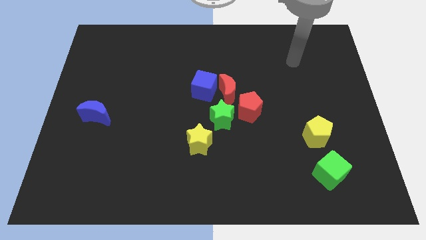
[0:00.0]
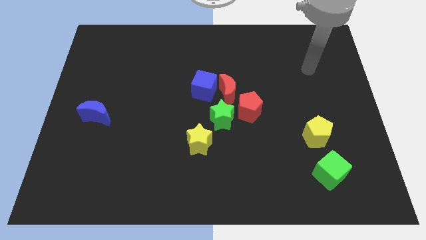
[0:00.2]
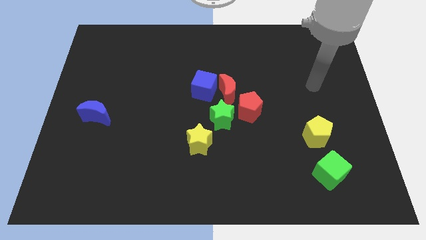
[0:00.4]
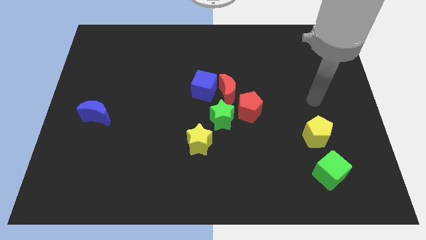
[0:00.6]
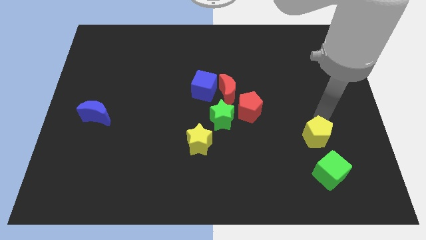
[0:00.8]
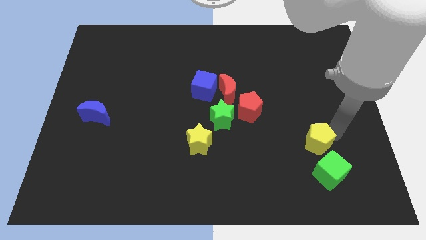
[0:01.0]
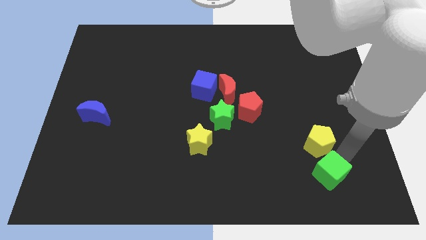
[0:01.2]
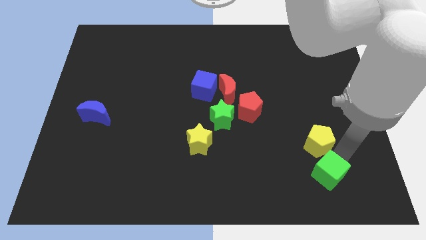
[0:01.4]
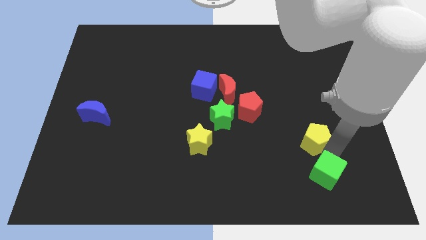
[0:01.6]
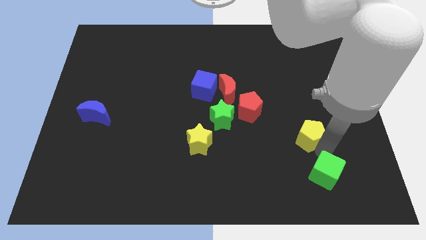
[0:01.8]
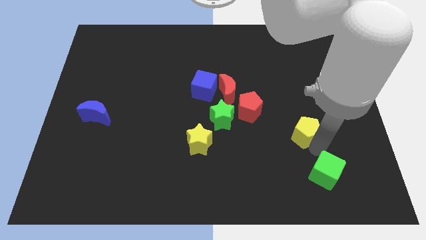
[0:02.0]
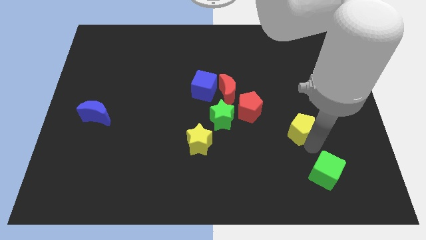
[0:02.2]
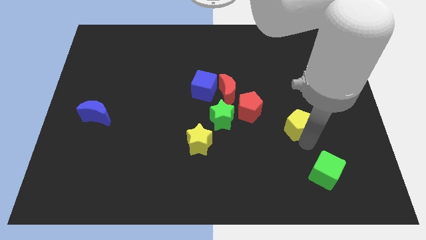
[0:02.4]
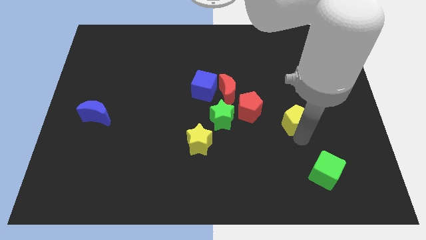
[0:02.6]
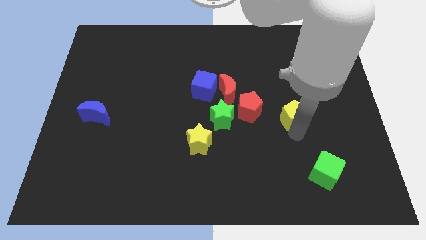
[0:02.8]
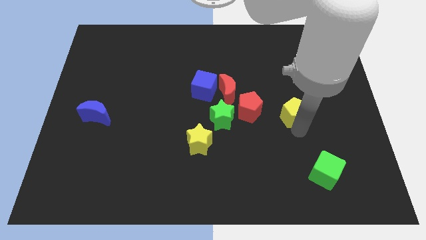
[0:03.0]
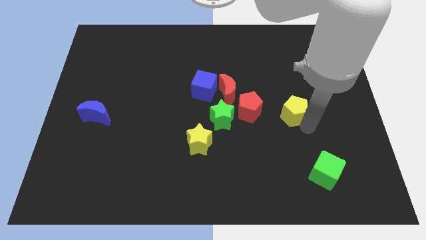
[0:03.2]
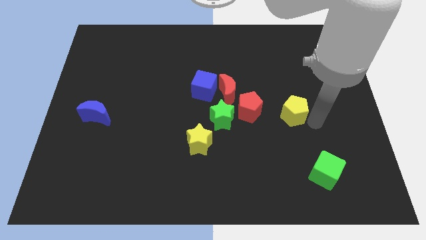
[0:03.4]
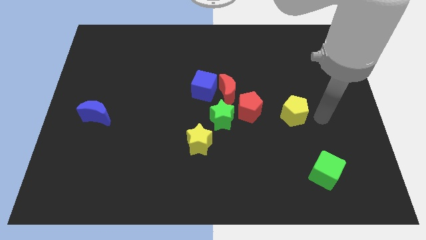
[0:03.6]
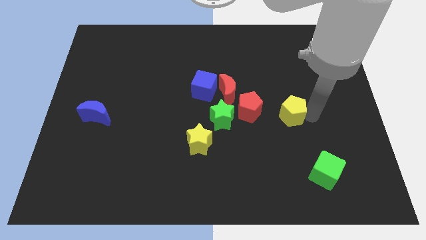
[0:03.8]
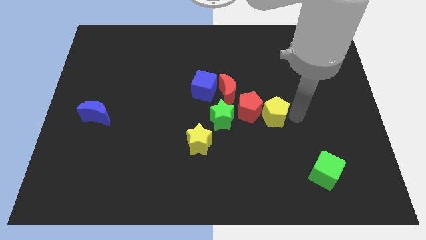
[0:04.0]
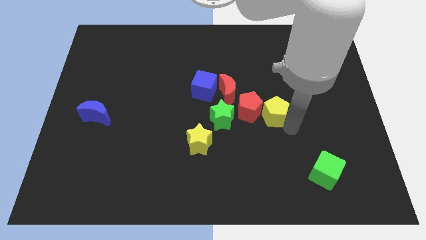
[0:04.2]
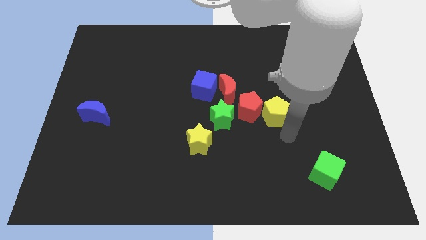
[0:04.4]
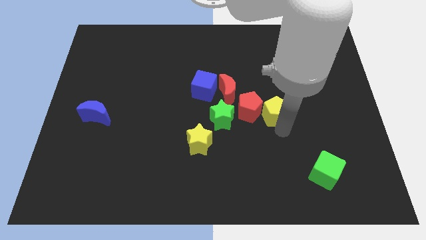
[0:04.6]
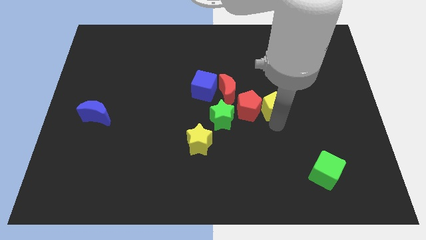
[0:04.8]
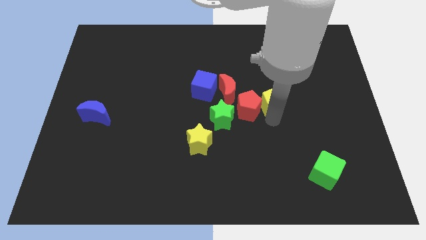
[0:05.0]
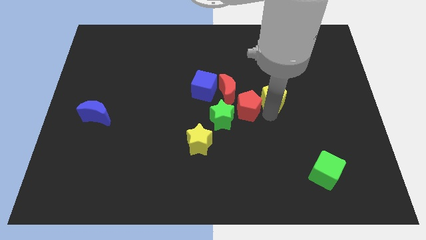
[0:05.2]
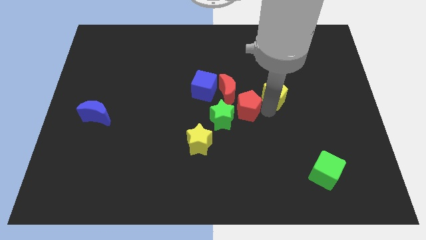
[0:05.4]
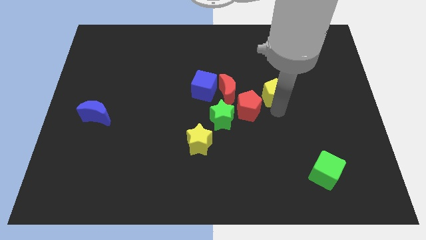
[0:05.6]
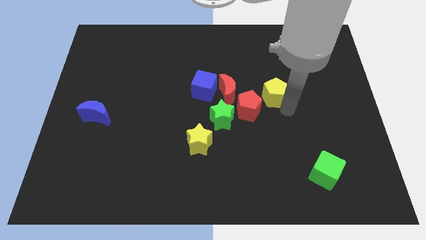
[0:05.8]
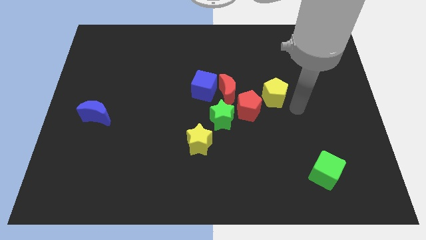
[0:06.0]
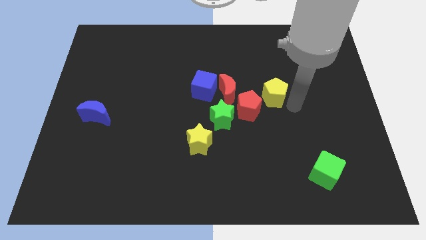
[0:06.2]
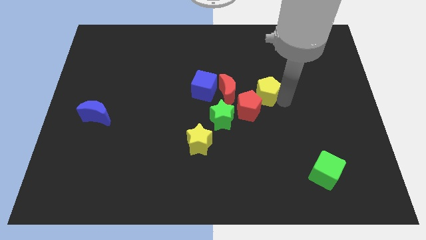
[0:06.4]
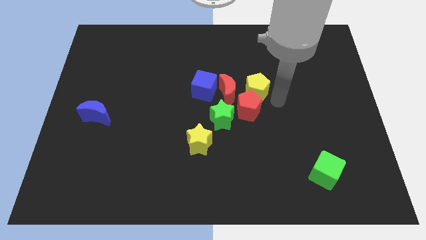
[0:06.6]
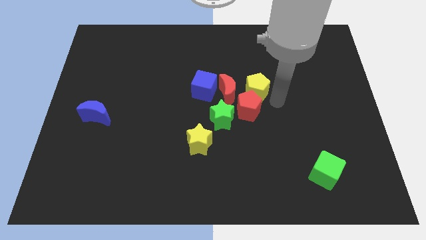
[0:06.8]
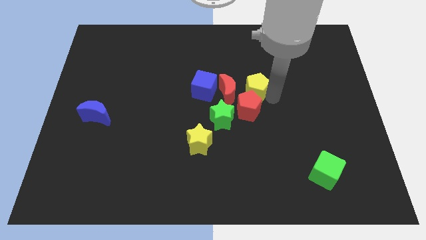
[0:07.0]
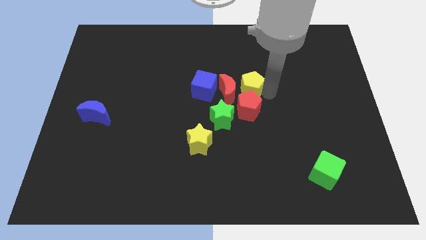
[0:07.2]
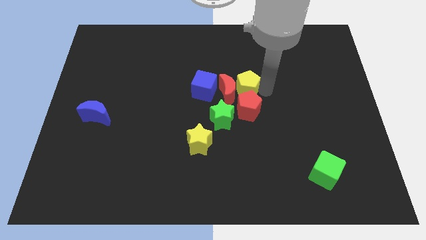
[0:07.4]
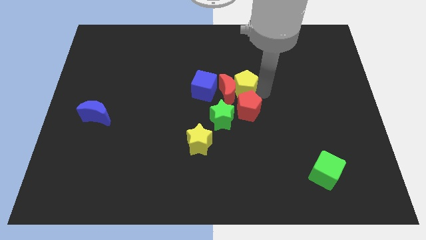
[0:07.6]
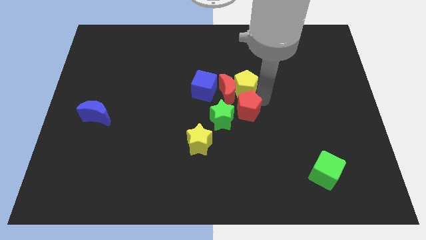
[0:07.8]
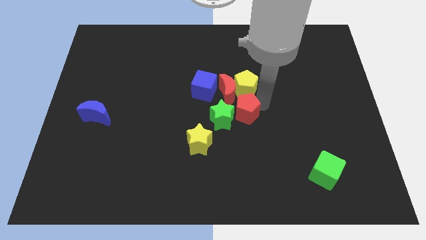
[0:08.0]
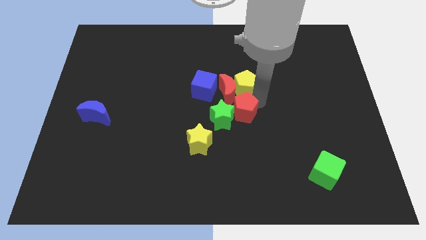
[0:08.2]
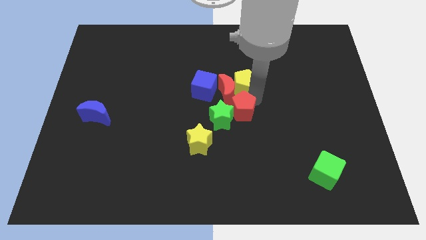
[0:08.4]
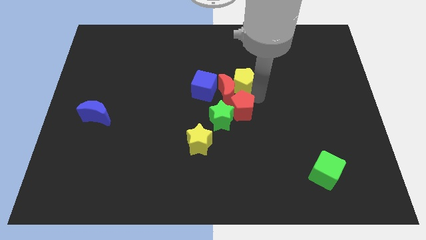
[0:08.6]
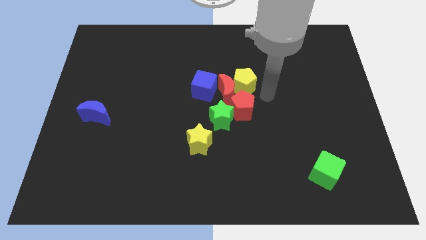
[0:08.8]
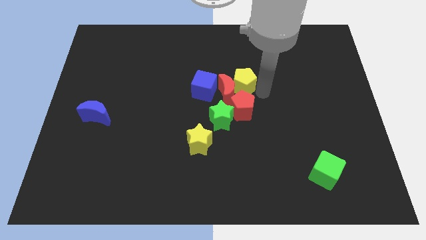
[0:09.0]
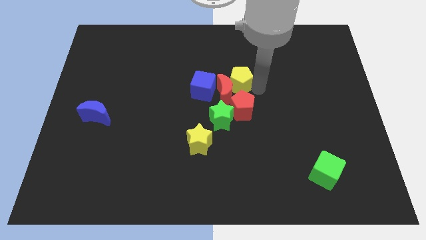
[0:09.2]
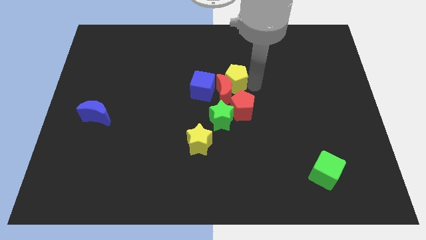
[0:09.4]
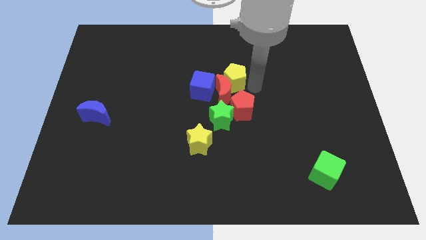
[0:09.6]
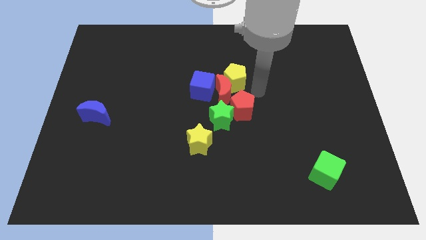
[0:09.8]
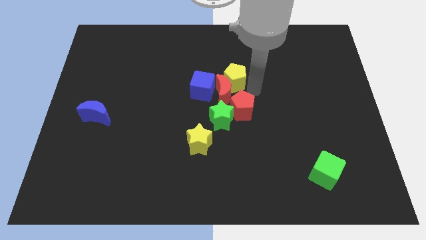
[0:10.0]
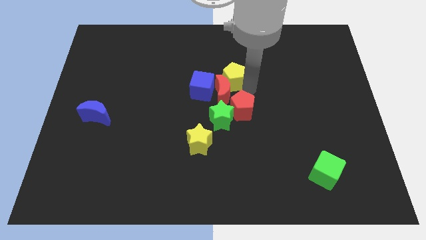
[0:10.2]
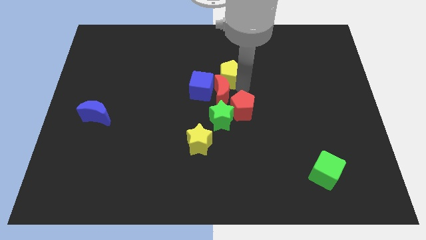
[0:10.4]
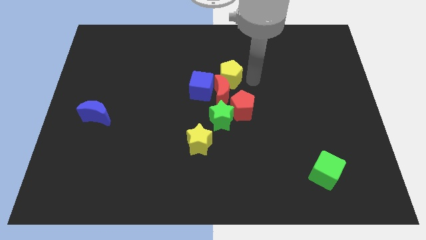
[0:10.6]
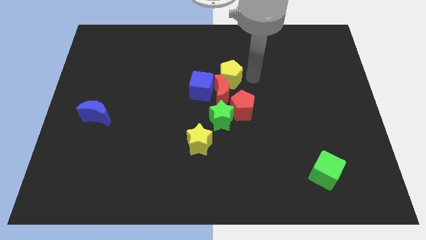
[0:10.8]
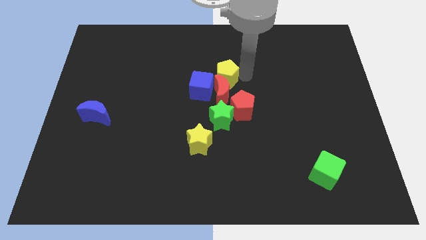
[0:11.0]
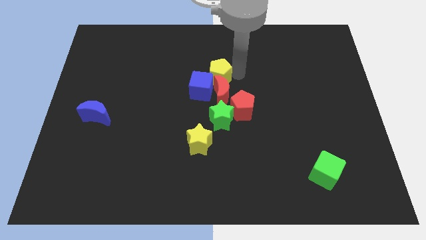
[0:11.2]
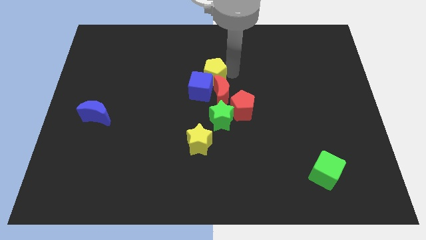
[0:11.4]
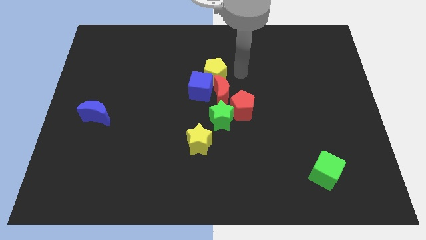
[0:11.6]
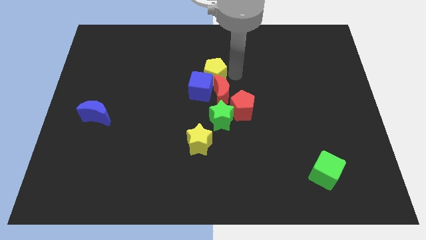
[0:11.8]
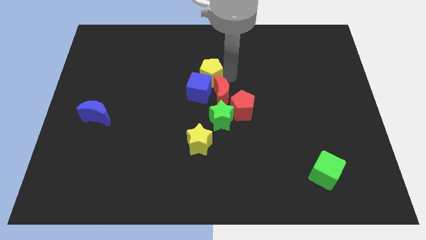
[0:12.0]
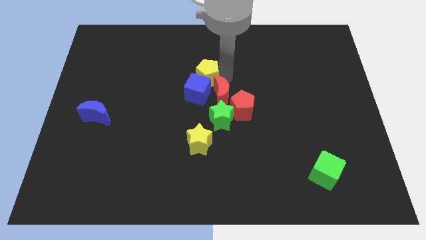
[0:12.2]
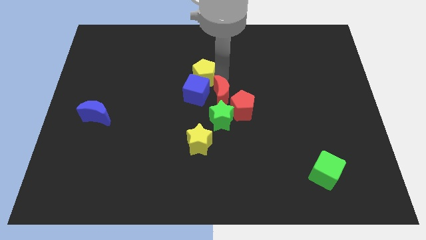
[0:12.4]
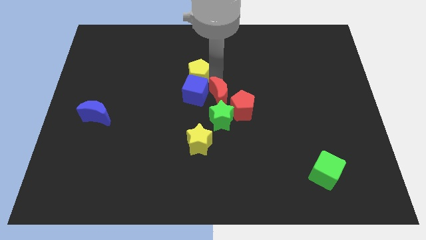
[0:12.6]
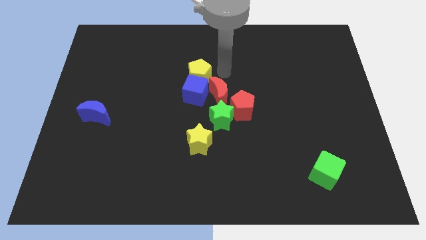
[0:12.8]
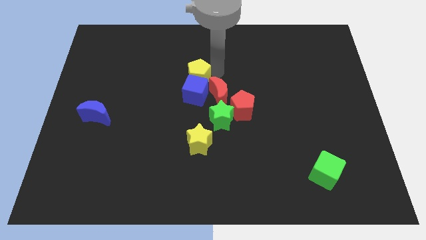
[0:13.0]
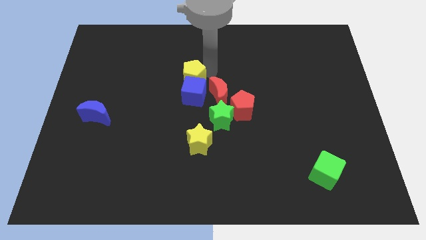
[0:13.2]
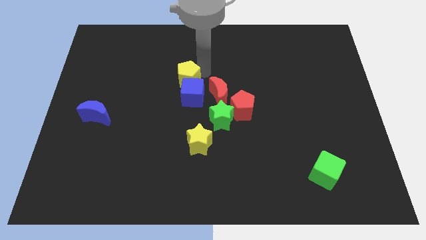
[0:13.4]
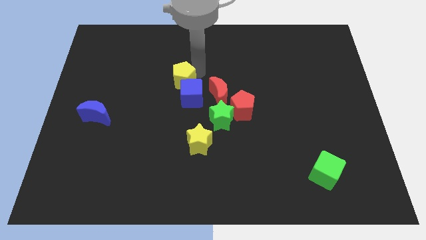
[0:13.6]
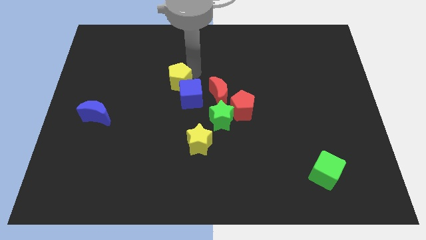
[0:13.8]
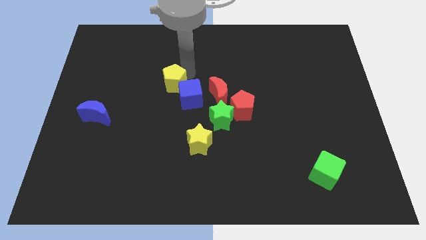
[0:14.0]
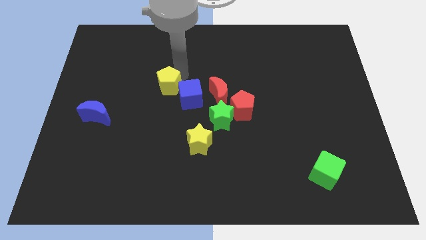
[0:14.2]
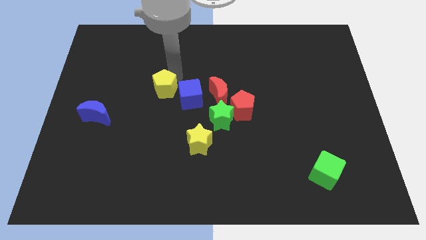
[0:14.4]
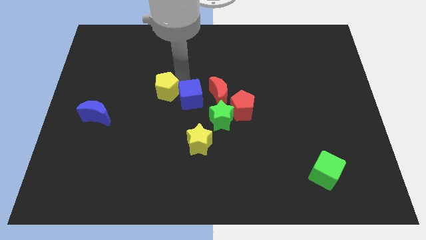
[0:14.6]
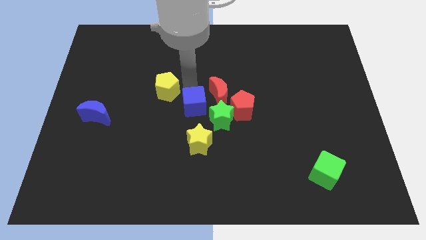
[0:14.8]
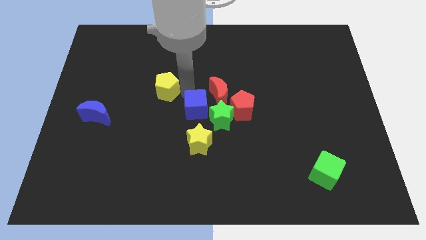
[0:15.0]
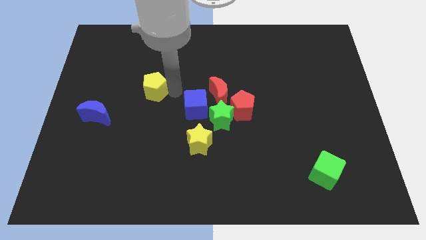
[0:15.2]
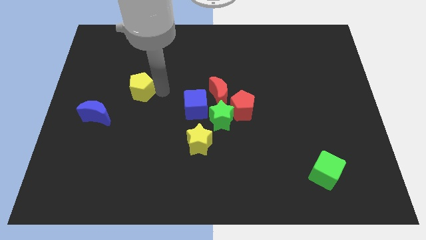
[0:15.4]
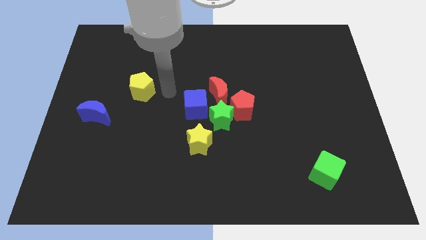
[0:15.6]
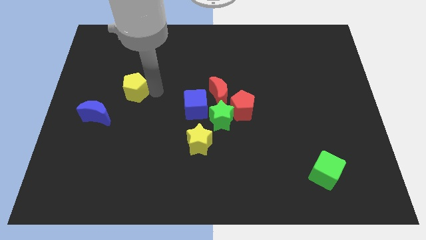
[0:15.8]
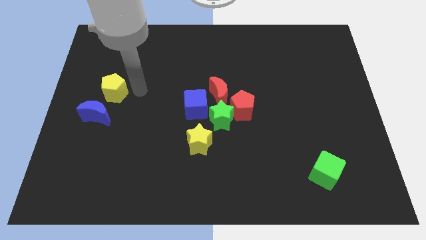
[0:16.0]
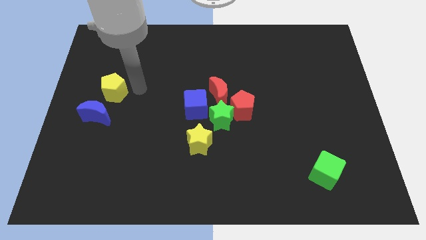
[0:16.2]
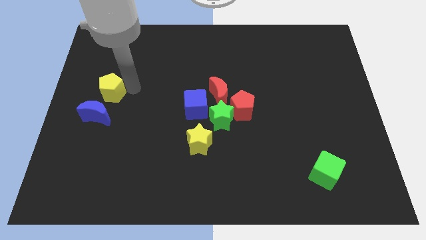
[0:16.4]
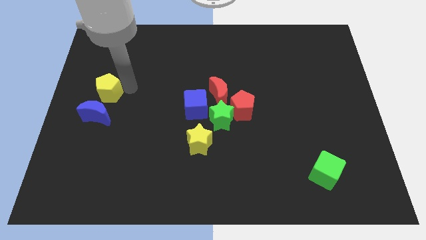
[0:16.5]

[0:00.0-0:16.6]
slide the yellow pentagon to the center left
